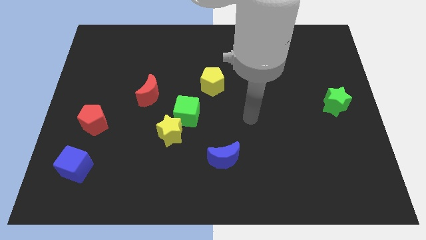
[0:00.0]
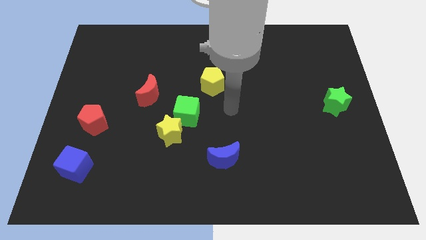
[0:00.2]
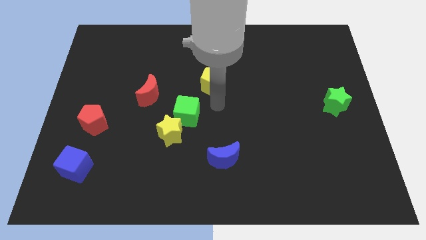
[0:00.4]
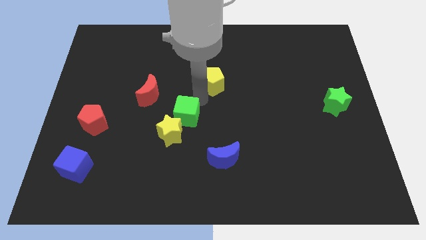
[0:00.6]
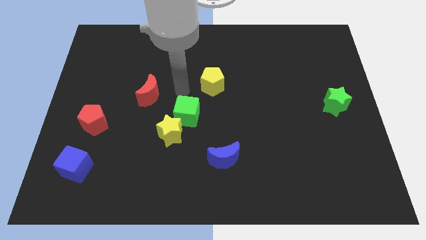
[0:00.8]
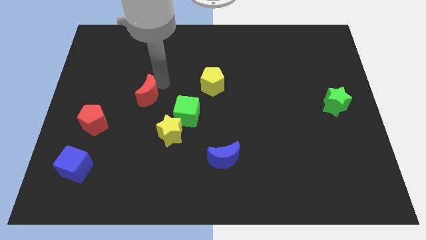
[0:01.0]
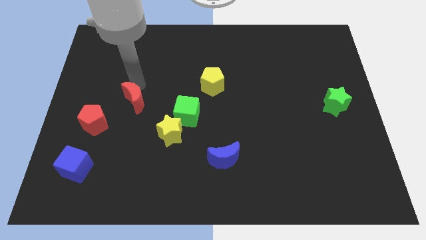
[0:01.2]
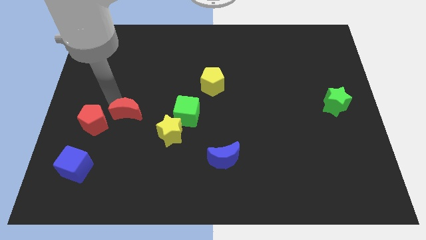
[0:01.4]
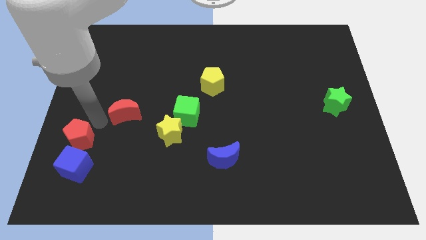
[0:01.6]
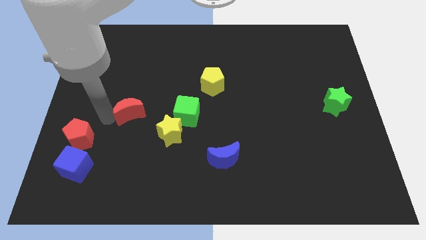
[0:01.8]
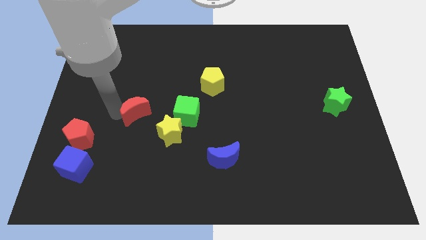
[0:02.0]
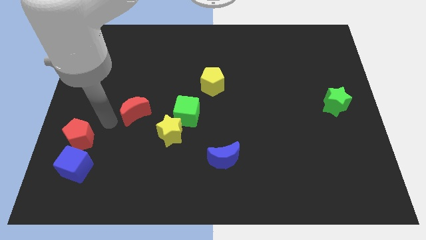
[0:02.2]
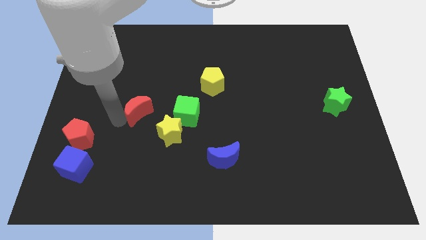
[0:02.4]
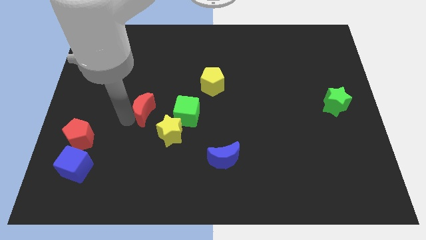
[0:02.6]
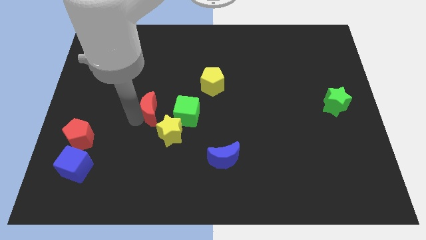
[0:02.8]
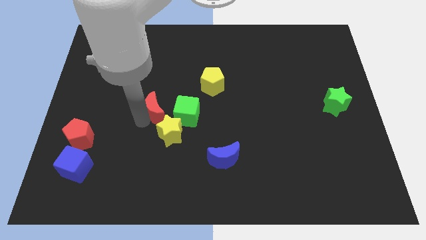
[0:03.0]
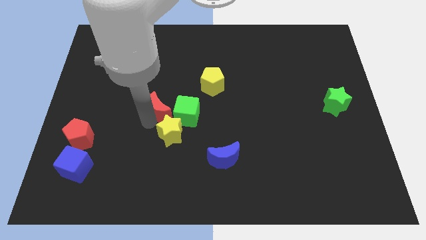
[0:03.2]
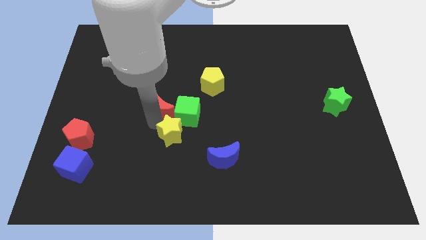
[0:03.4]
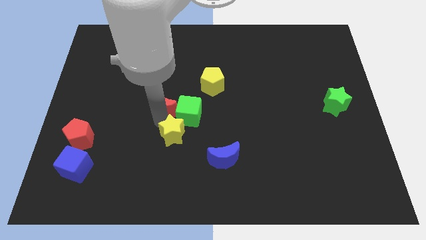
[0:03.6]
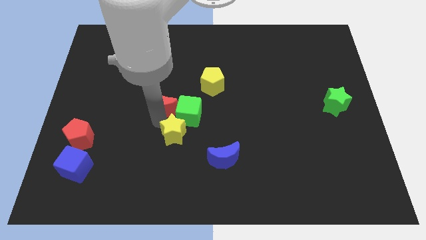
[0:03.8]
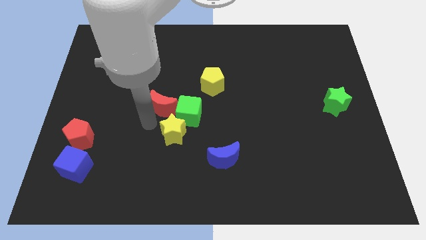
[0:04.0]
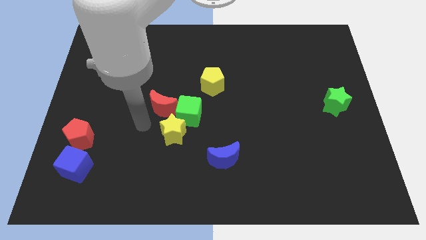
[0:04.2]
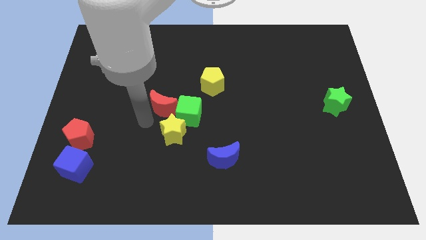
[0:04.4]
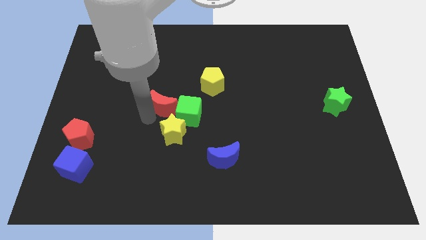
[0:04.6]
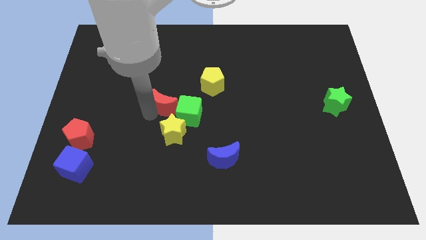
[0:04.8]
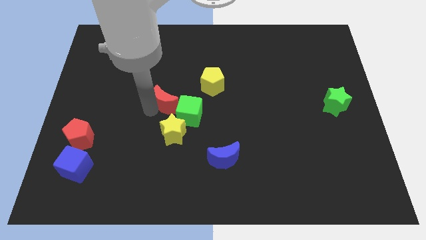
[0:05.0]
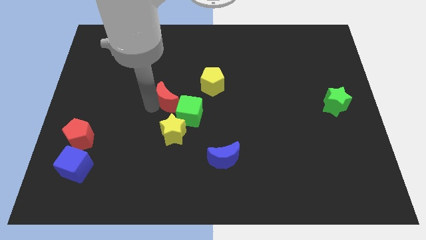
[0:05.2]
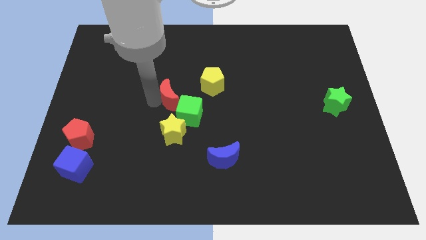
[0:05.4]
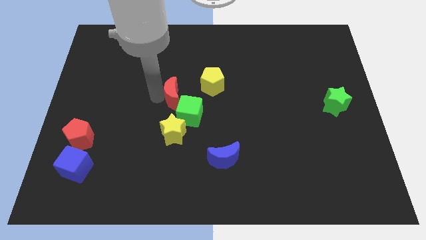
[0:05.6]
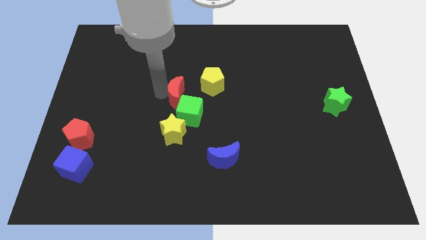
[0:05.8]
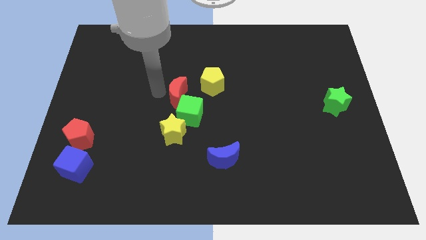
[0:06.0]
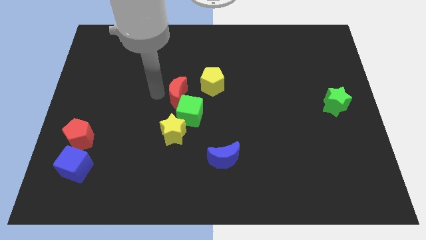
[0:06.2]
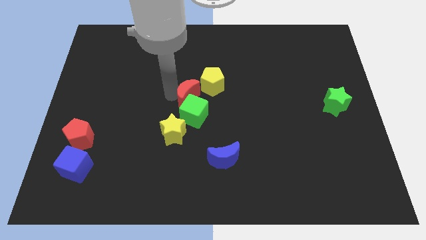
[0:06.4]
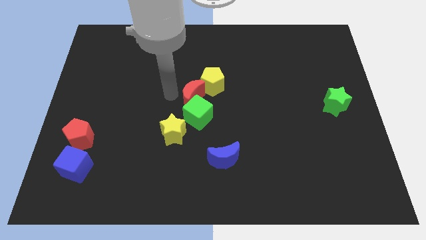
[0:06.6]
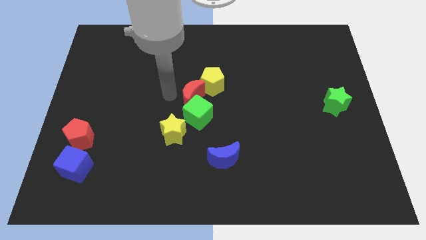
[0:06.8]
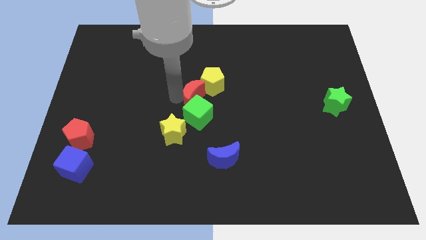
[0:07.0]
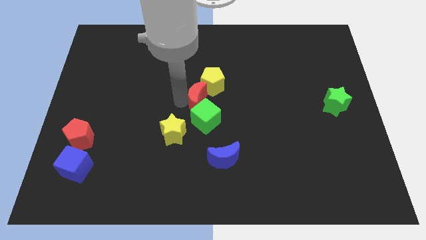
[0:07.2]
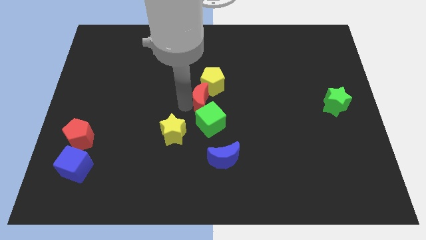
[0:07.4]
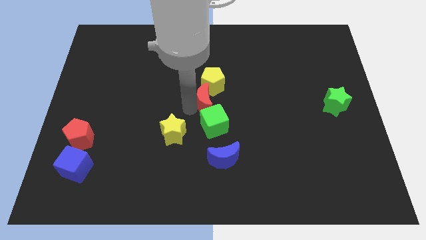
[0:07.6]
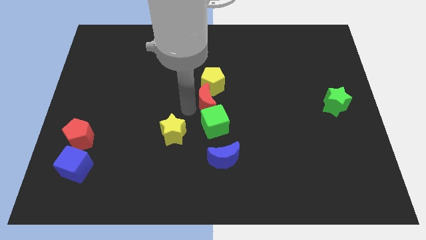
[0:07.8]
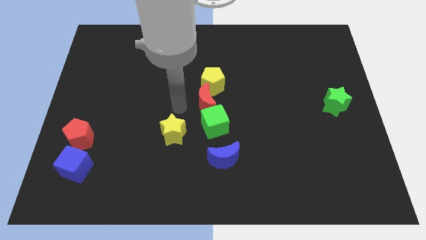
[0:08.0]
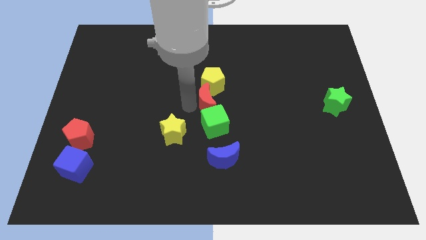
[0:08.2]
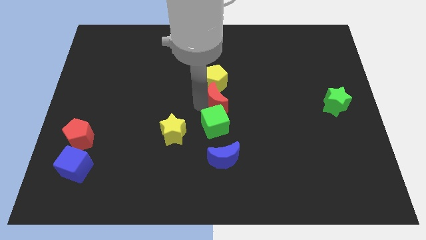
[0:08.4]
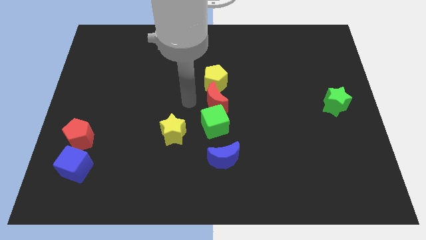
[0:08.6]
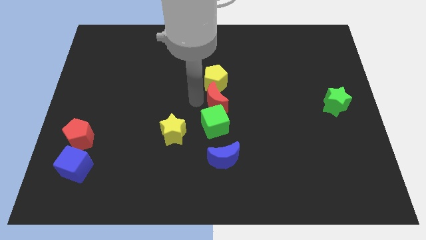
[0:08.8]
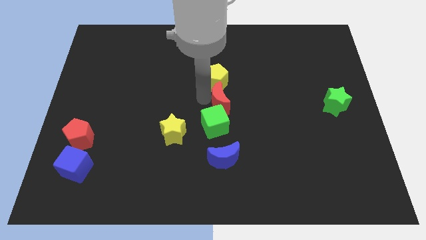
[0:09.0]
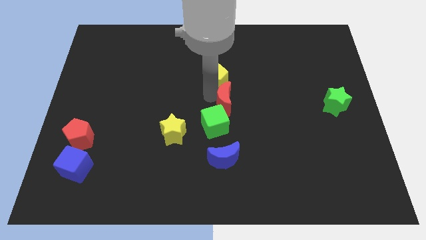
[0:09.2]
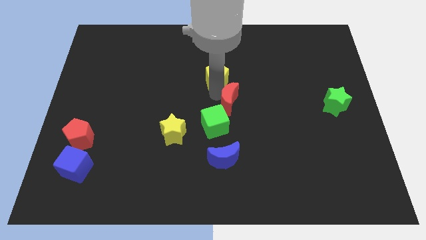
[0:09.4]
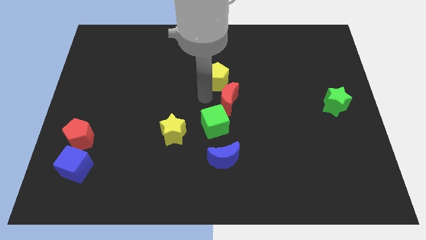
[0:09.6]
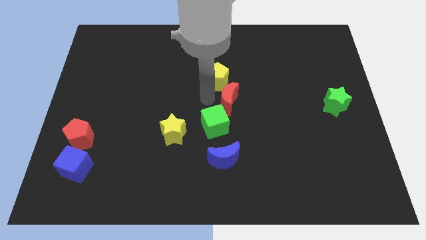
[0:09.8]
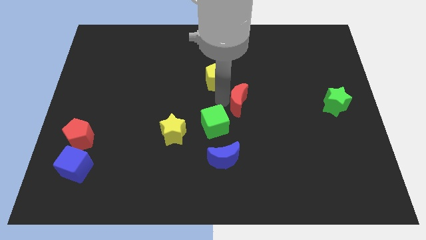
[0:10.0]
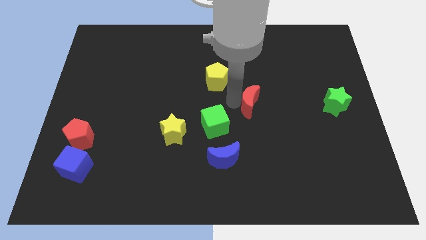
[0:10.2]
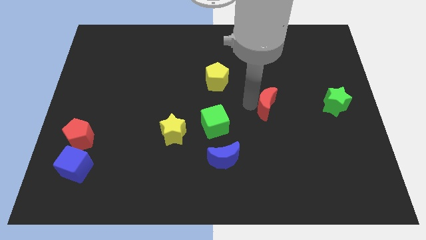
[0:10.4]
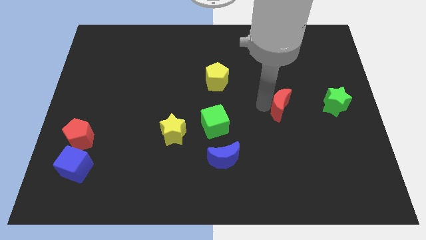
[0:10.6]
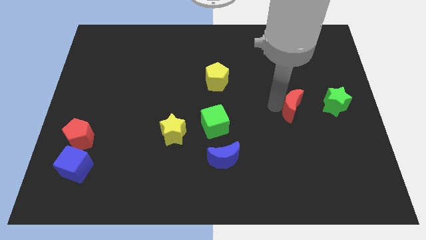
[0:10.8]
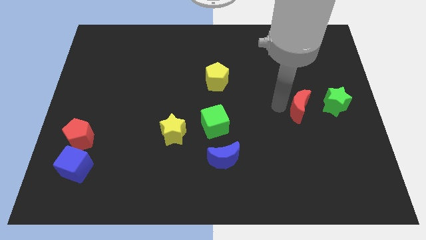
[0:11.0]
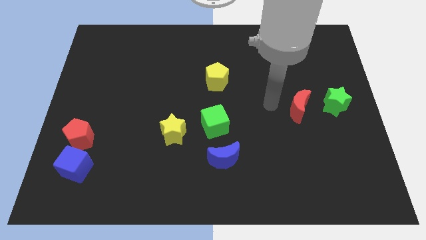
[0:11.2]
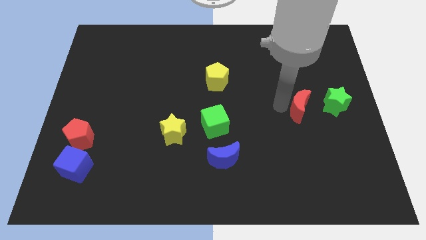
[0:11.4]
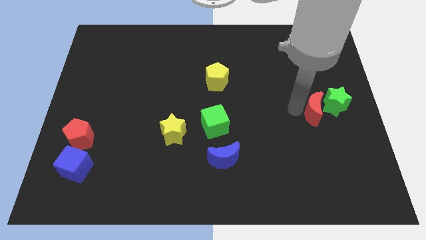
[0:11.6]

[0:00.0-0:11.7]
move the red moon next to the green star

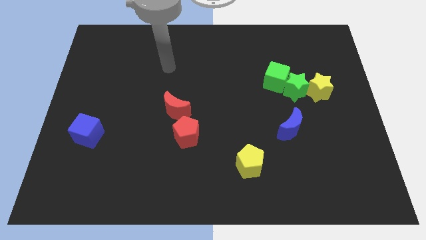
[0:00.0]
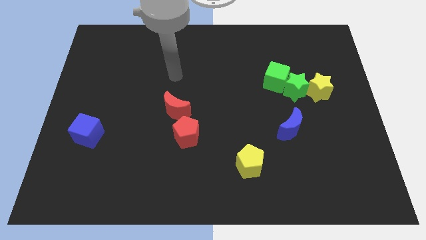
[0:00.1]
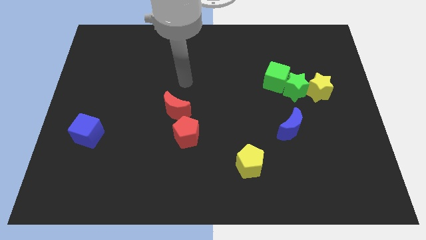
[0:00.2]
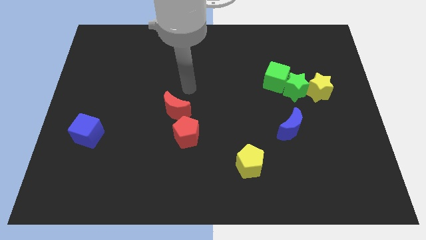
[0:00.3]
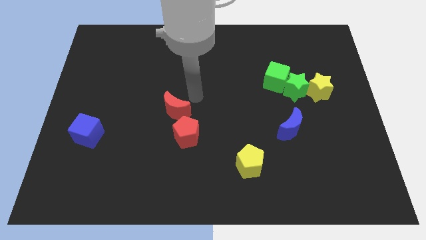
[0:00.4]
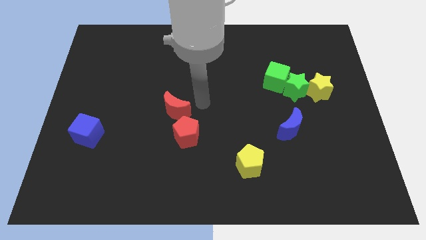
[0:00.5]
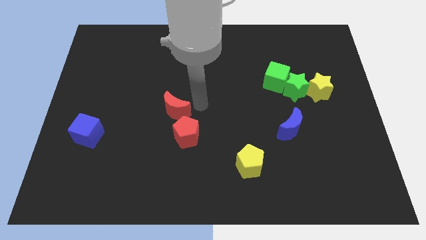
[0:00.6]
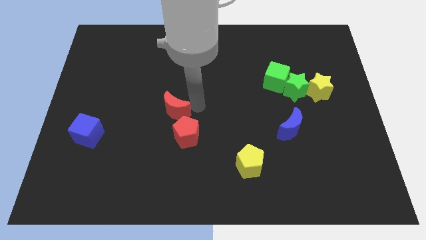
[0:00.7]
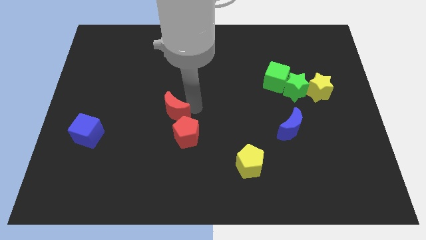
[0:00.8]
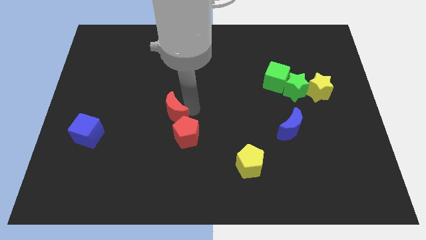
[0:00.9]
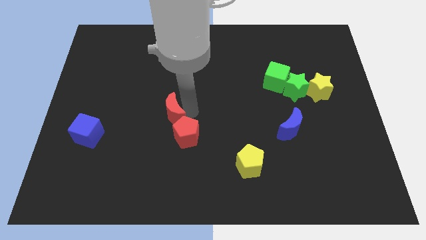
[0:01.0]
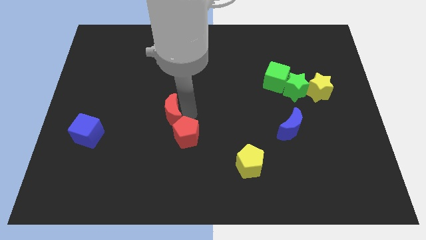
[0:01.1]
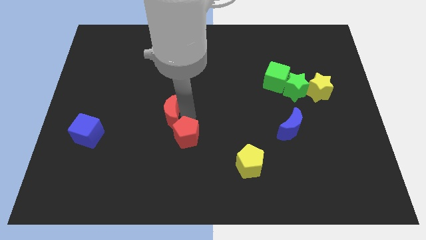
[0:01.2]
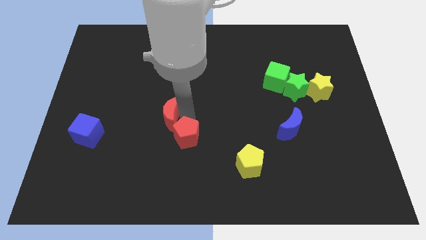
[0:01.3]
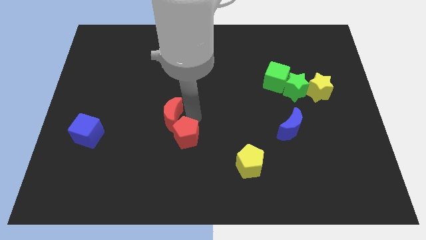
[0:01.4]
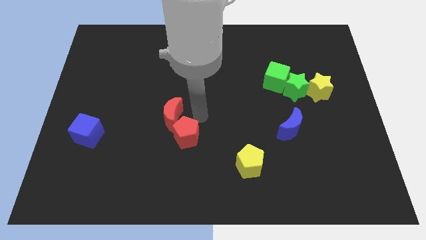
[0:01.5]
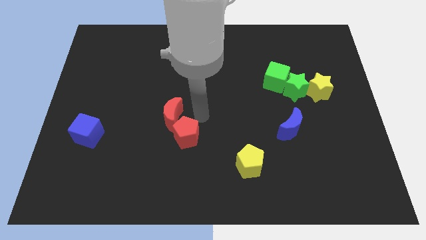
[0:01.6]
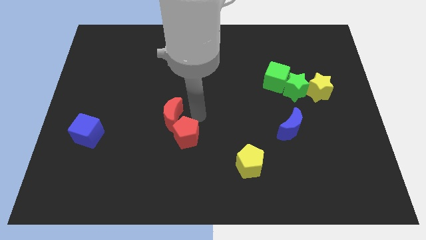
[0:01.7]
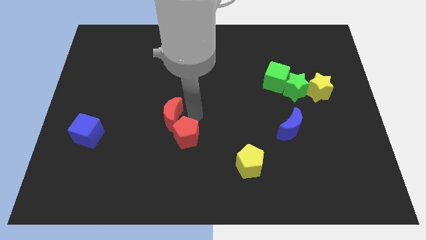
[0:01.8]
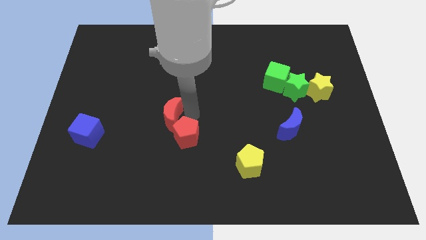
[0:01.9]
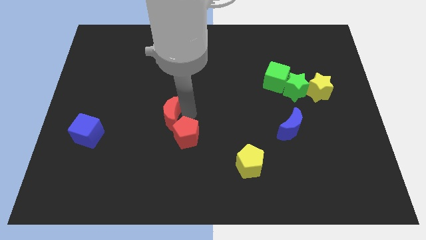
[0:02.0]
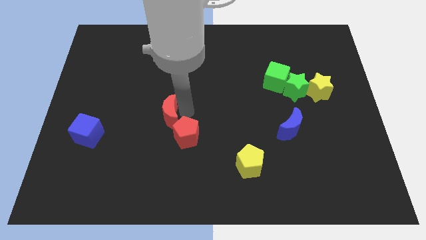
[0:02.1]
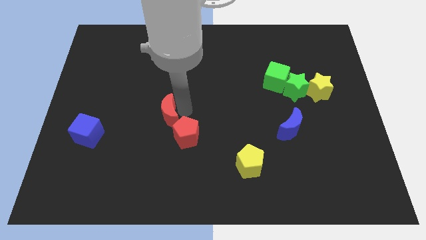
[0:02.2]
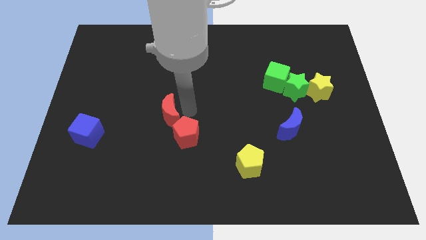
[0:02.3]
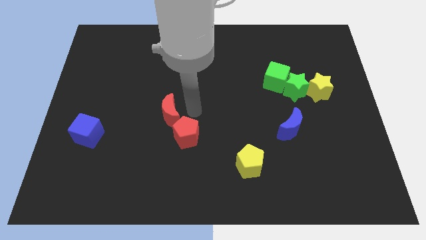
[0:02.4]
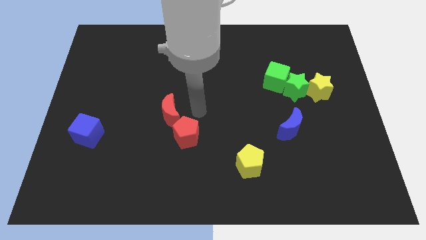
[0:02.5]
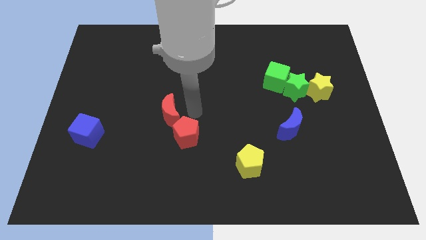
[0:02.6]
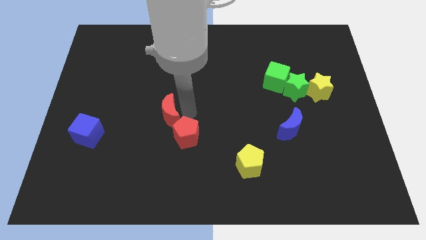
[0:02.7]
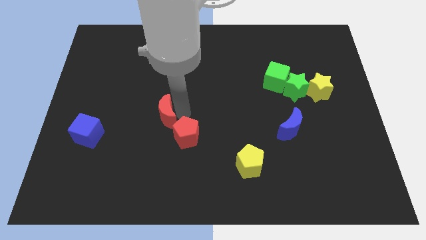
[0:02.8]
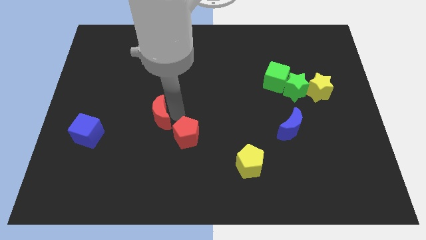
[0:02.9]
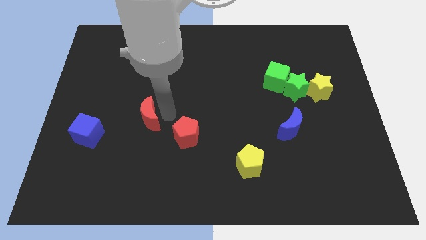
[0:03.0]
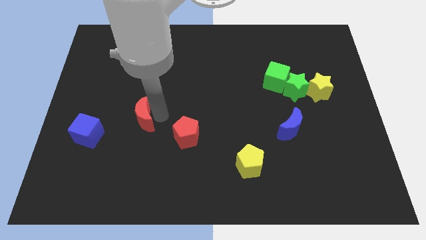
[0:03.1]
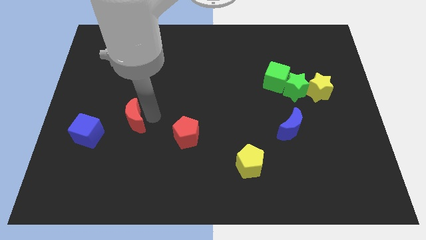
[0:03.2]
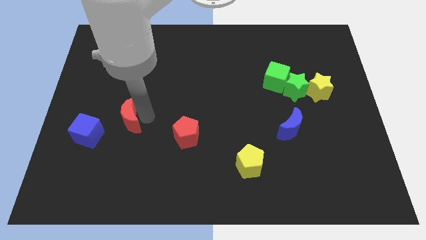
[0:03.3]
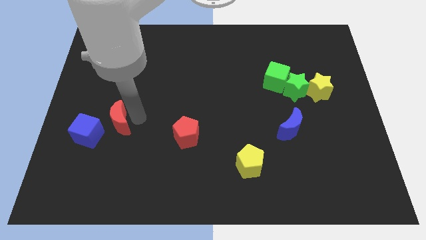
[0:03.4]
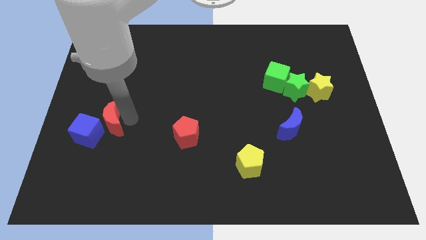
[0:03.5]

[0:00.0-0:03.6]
slide the red moon next to the blue cube
